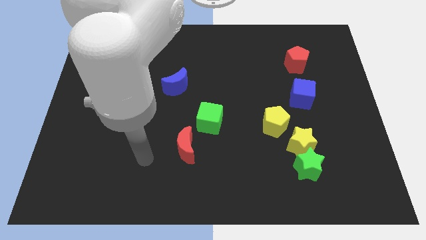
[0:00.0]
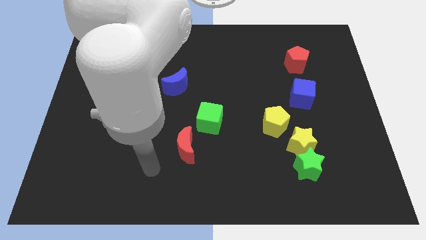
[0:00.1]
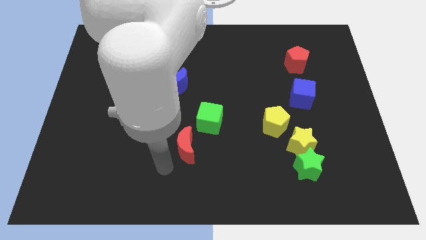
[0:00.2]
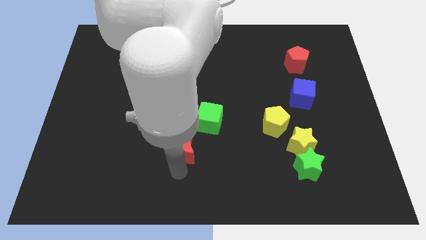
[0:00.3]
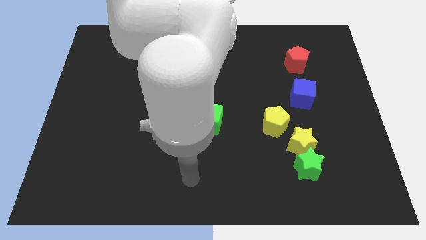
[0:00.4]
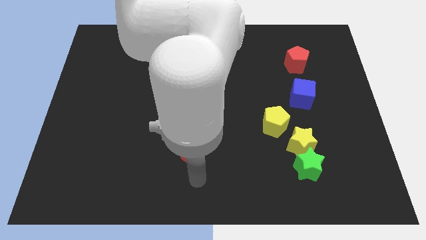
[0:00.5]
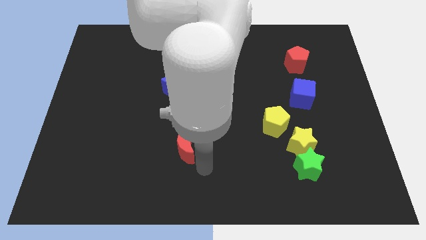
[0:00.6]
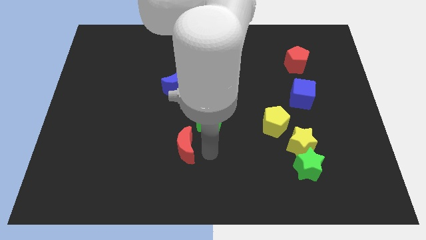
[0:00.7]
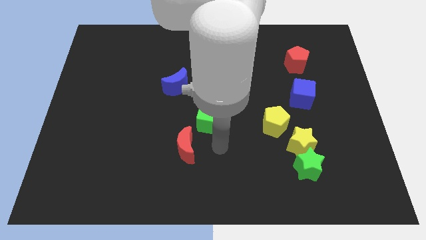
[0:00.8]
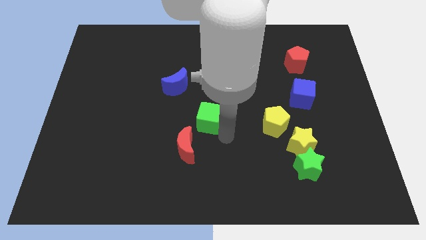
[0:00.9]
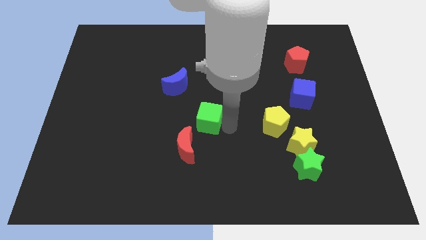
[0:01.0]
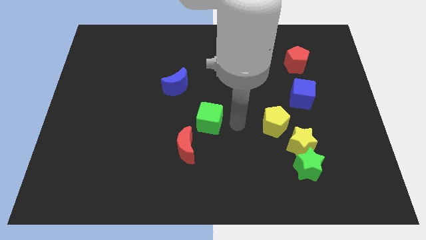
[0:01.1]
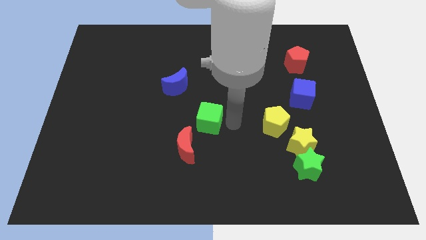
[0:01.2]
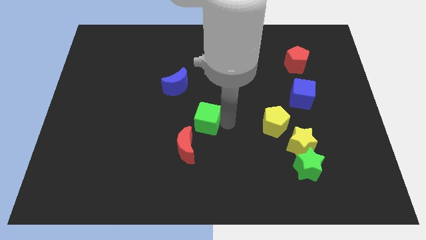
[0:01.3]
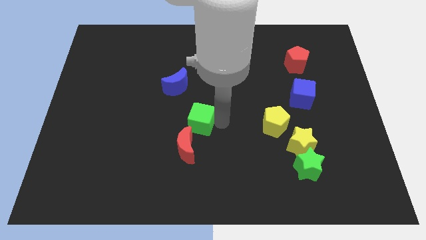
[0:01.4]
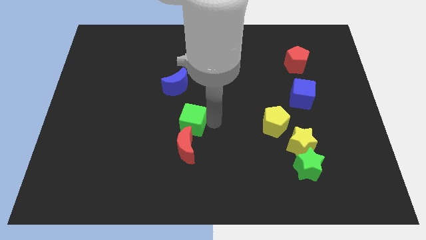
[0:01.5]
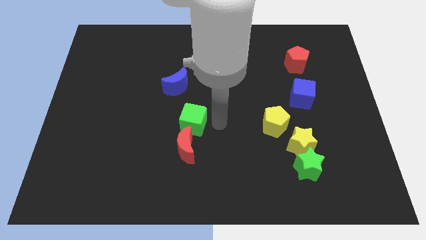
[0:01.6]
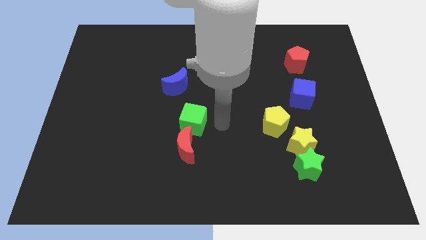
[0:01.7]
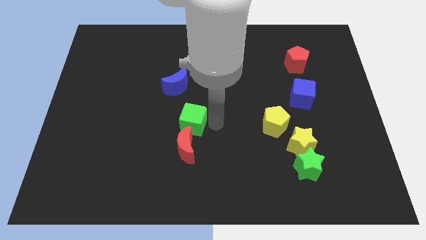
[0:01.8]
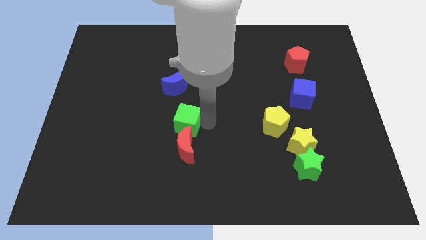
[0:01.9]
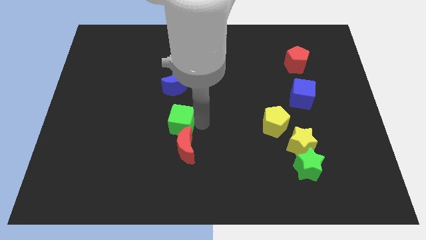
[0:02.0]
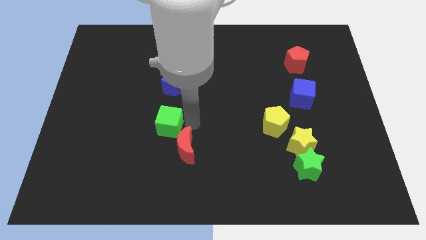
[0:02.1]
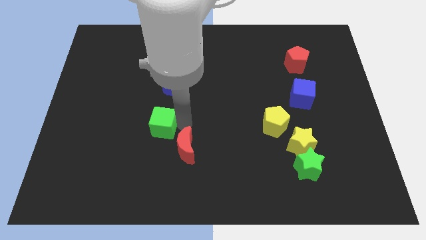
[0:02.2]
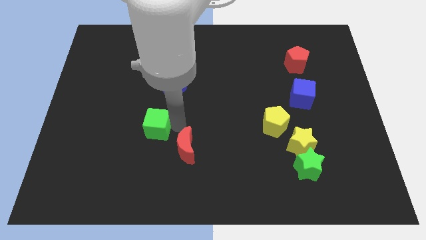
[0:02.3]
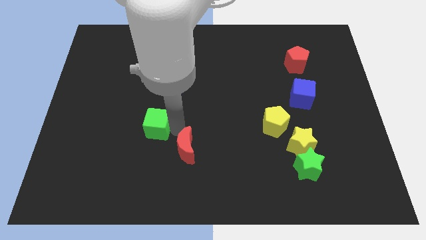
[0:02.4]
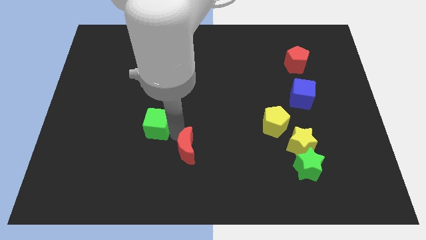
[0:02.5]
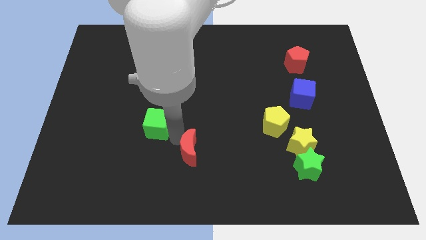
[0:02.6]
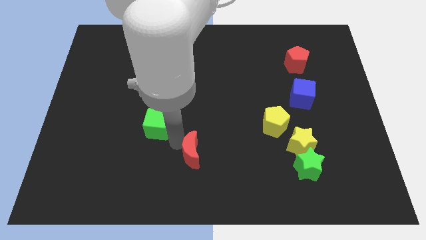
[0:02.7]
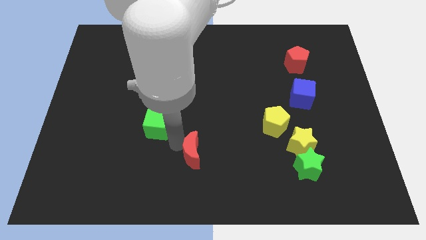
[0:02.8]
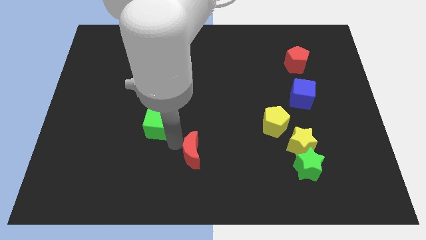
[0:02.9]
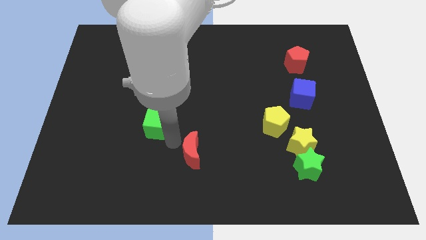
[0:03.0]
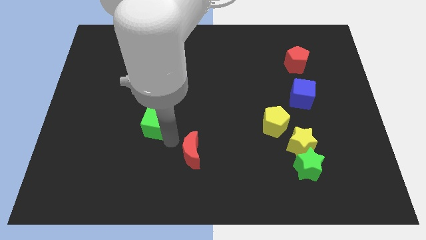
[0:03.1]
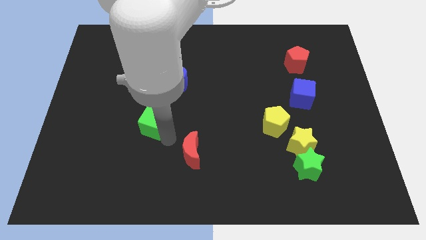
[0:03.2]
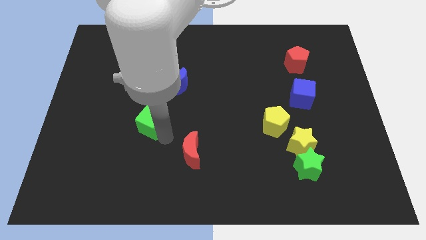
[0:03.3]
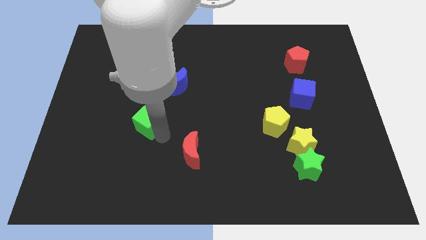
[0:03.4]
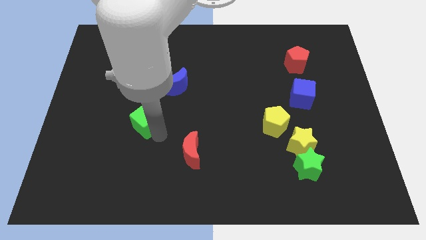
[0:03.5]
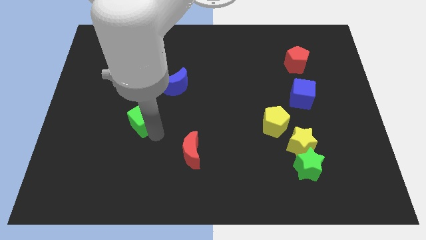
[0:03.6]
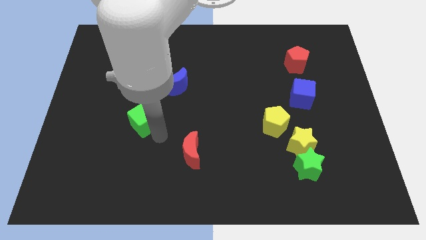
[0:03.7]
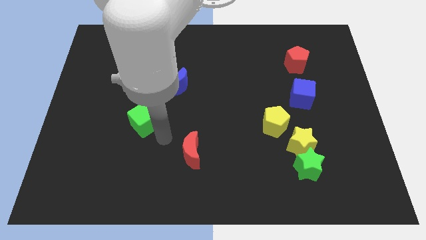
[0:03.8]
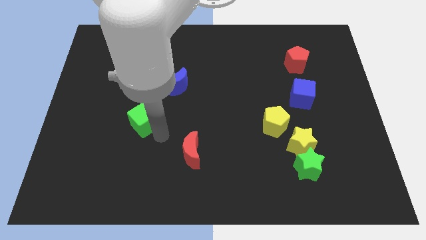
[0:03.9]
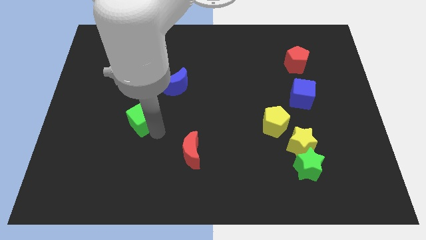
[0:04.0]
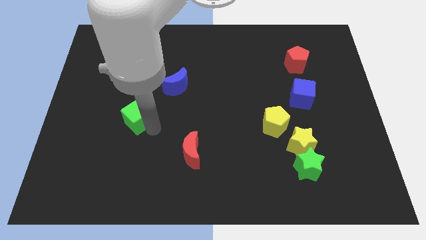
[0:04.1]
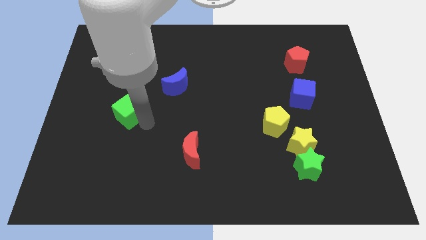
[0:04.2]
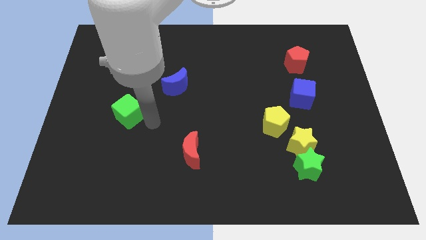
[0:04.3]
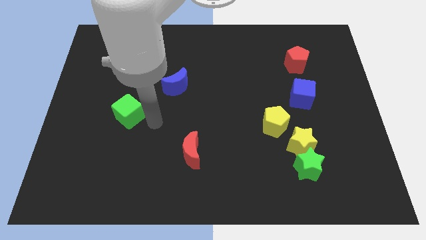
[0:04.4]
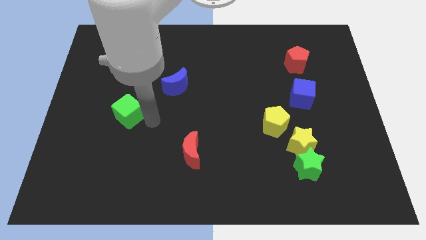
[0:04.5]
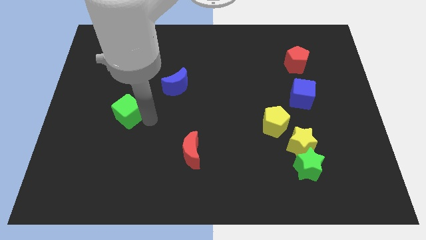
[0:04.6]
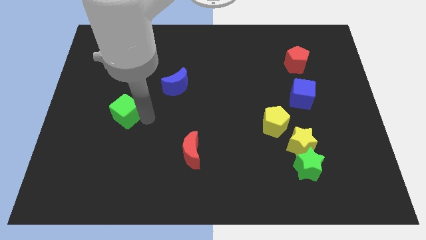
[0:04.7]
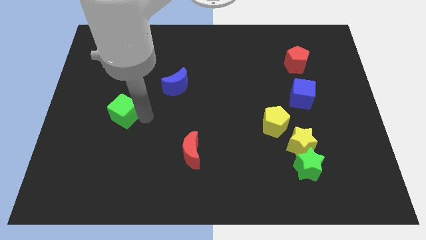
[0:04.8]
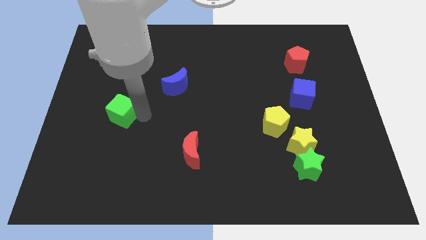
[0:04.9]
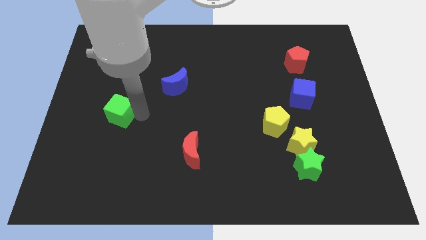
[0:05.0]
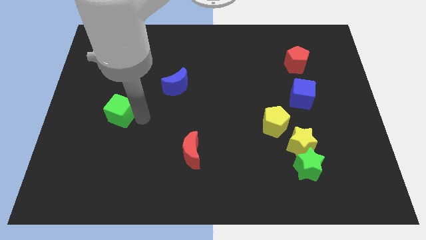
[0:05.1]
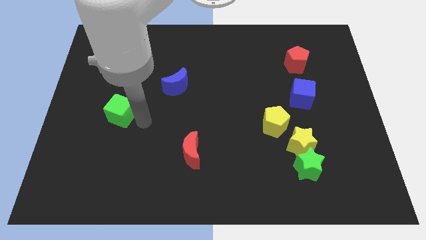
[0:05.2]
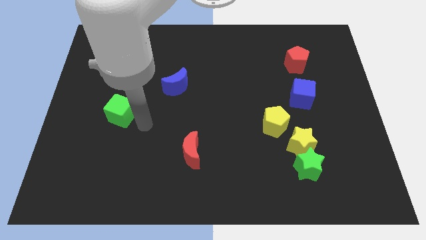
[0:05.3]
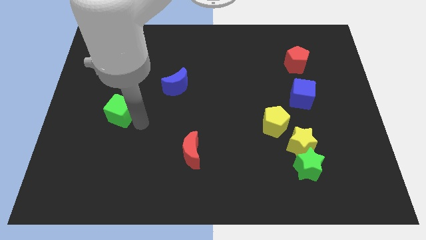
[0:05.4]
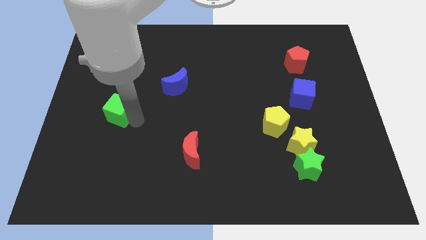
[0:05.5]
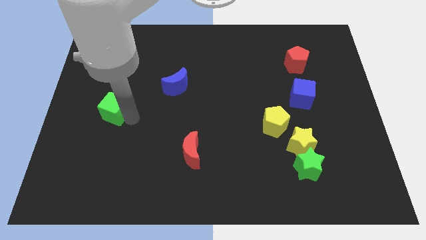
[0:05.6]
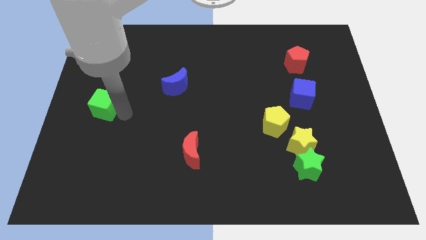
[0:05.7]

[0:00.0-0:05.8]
put the green cube to the center left
